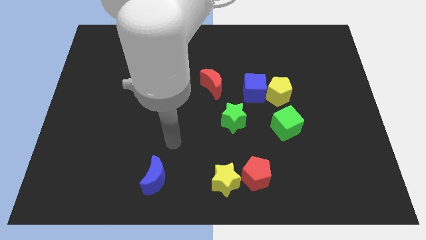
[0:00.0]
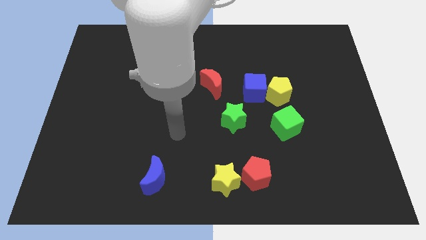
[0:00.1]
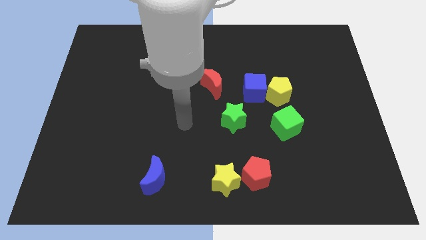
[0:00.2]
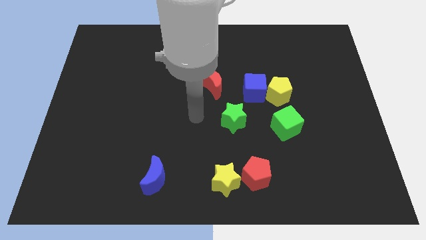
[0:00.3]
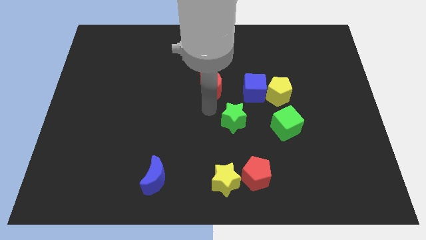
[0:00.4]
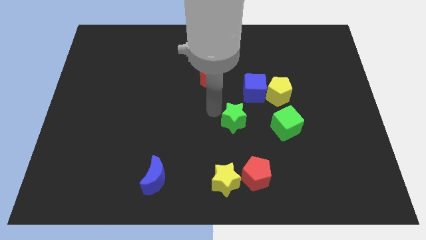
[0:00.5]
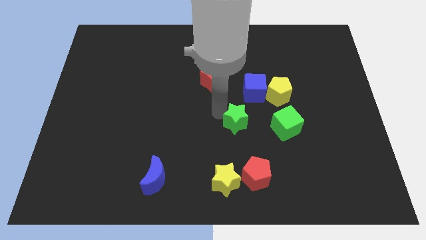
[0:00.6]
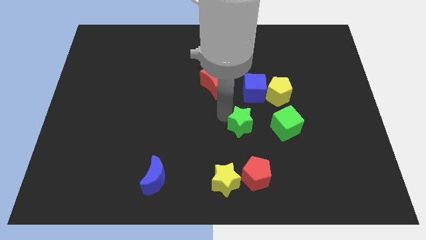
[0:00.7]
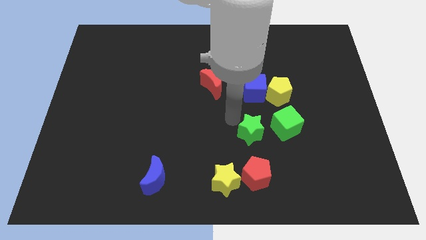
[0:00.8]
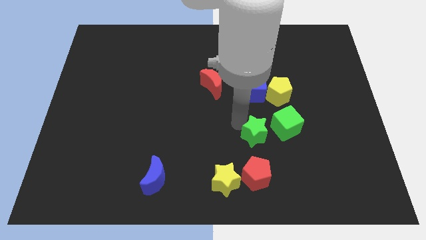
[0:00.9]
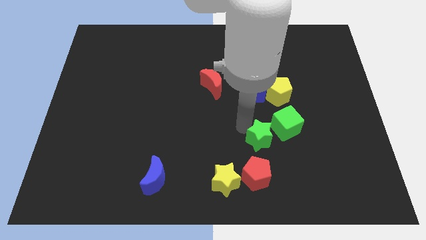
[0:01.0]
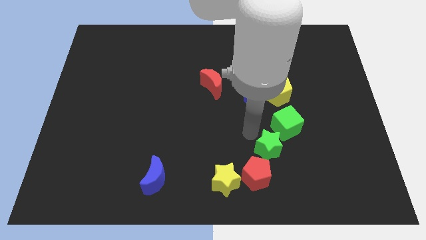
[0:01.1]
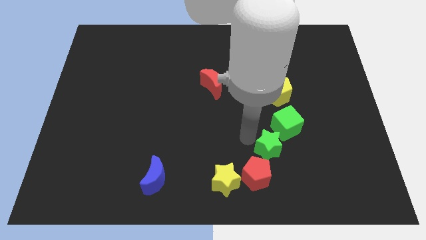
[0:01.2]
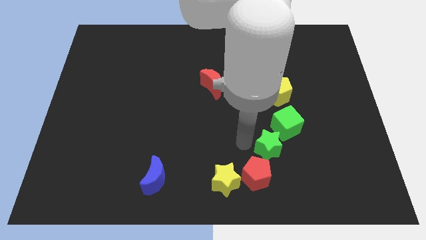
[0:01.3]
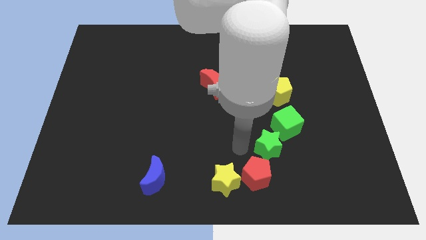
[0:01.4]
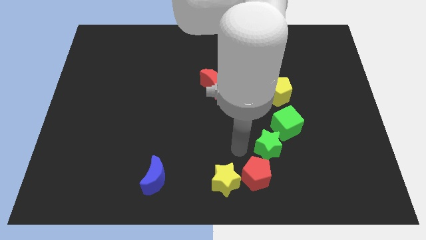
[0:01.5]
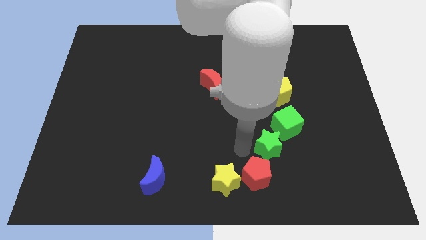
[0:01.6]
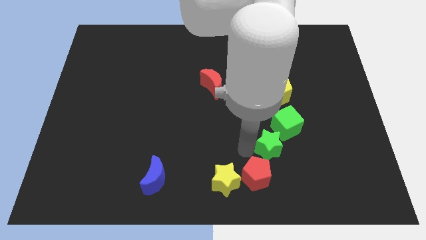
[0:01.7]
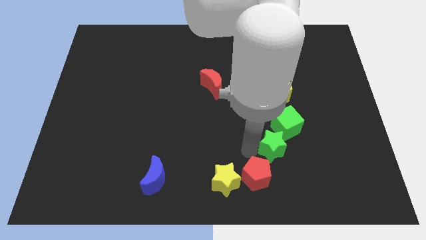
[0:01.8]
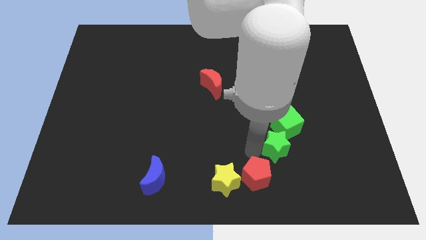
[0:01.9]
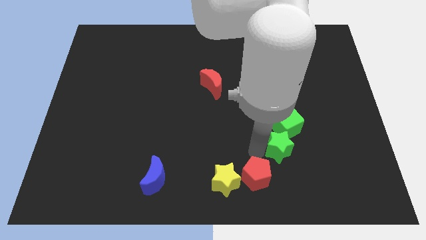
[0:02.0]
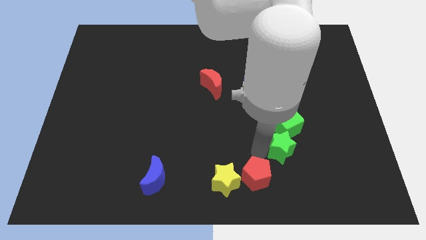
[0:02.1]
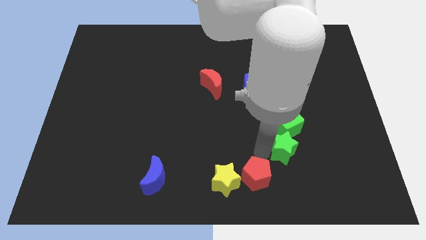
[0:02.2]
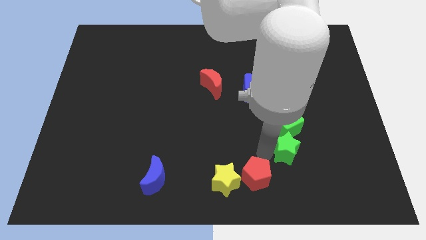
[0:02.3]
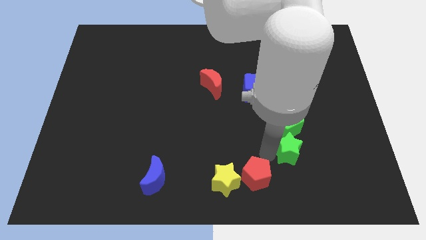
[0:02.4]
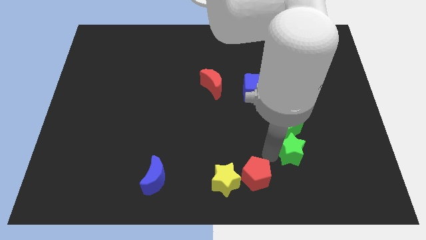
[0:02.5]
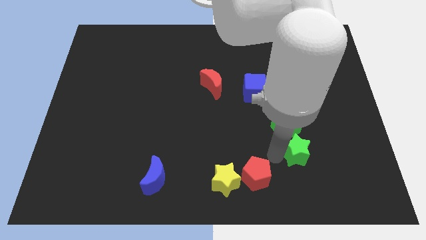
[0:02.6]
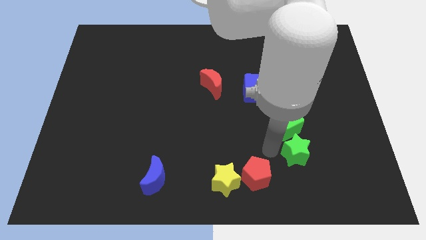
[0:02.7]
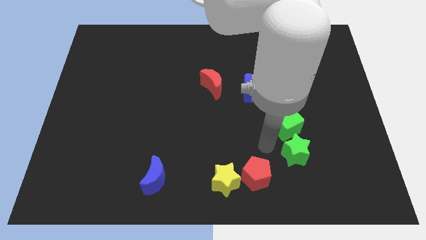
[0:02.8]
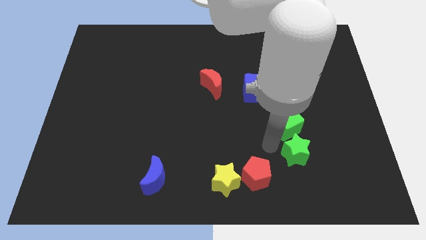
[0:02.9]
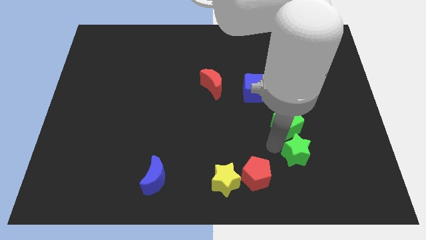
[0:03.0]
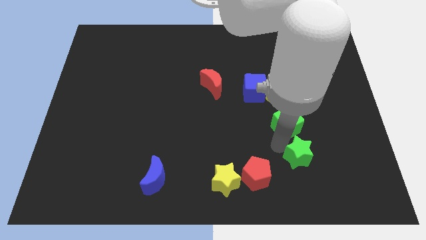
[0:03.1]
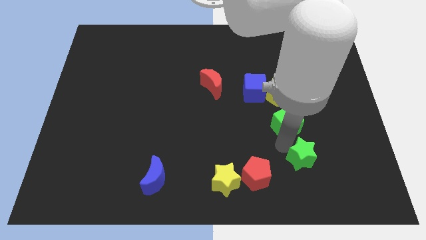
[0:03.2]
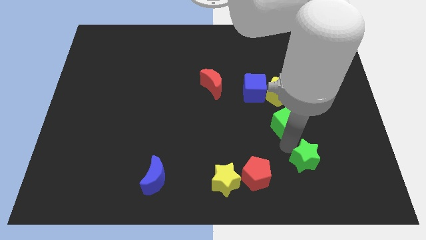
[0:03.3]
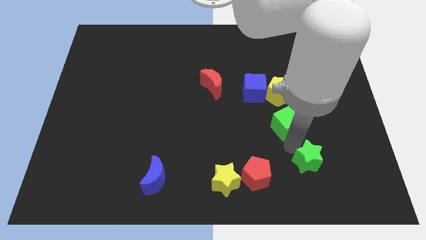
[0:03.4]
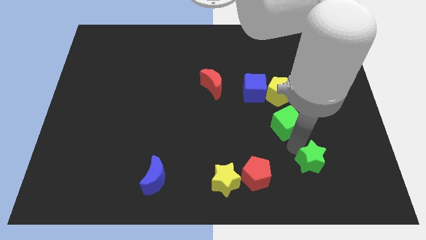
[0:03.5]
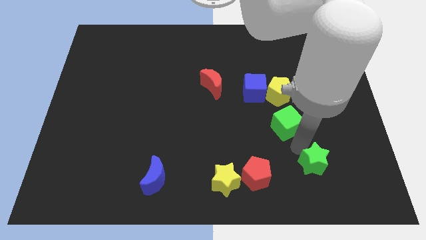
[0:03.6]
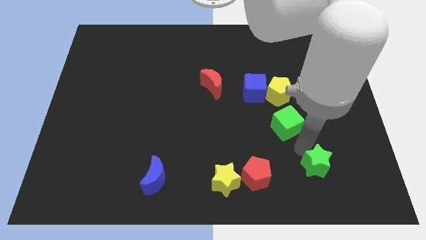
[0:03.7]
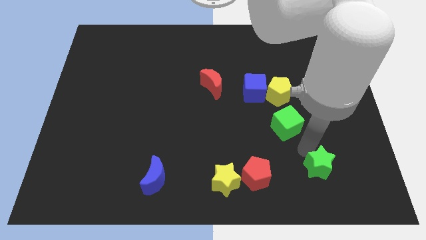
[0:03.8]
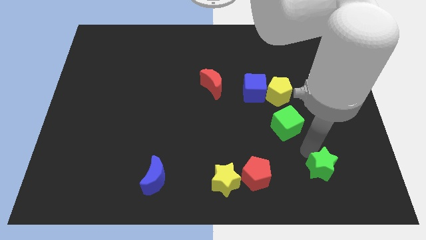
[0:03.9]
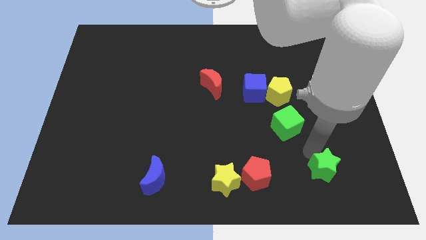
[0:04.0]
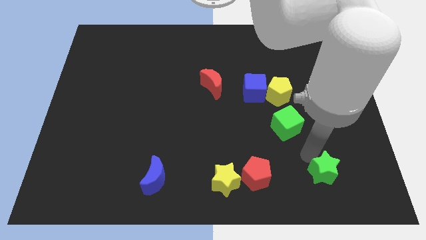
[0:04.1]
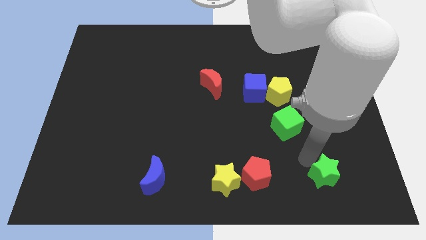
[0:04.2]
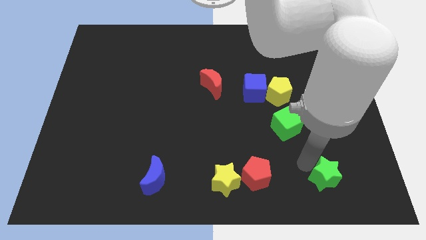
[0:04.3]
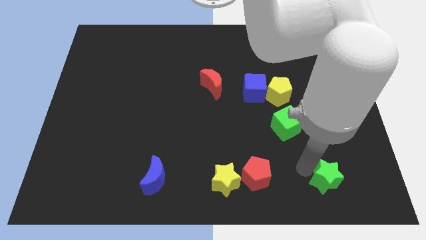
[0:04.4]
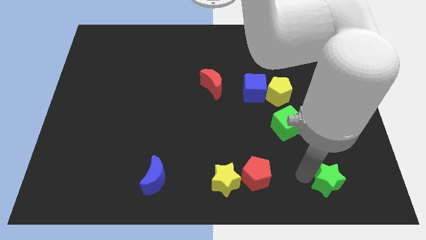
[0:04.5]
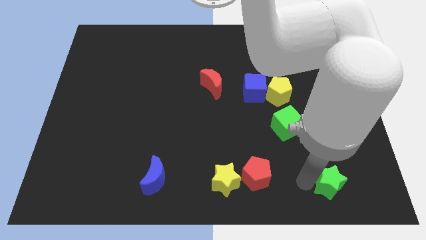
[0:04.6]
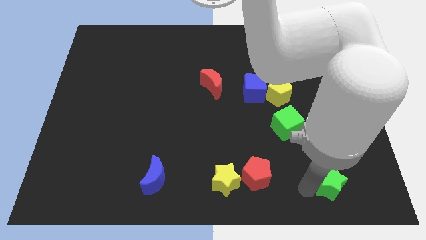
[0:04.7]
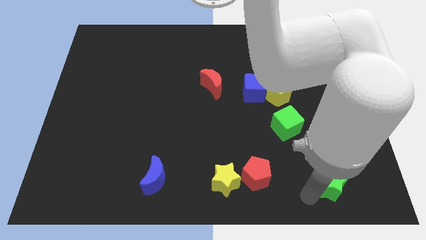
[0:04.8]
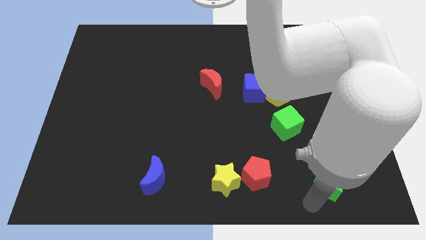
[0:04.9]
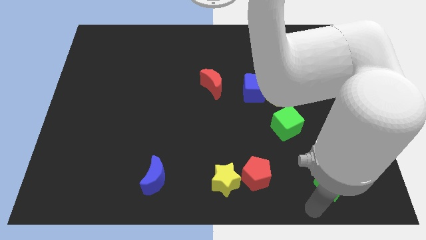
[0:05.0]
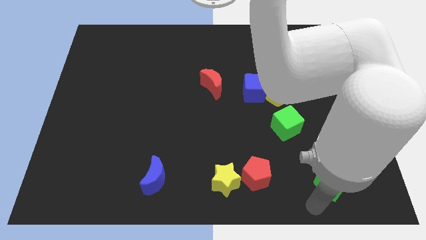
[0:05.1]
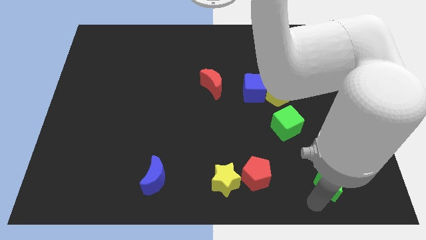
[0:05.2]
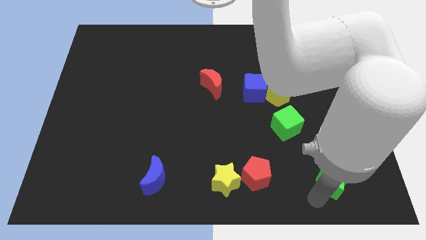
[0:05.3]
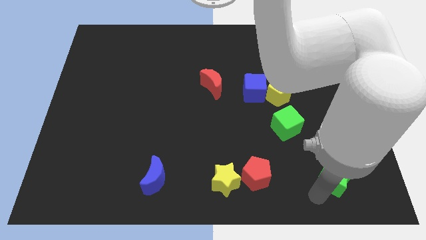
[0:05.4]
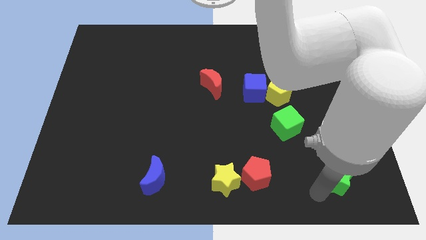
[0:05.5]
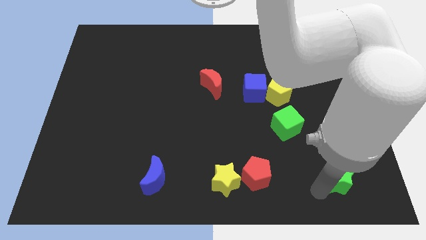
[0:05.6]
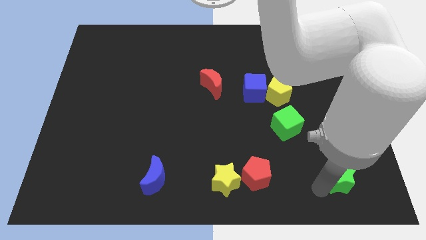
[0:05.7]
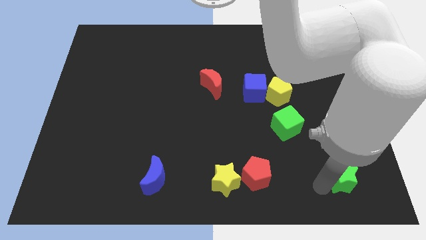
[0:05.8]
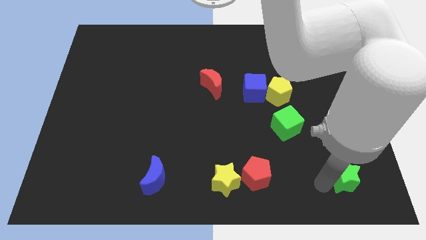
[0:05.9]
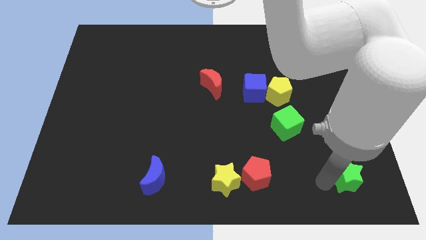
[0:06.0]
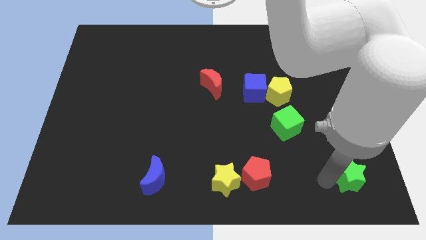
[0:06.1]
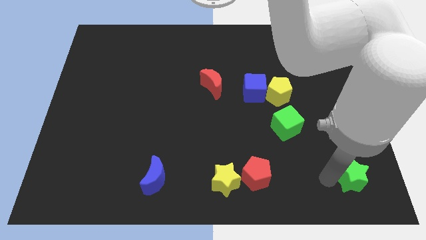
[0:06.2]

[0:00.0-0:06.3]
move the green star to the bottom right

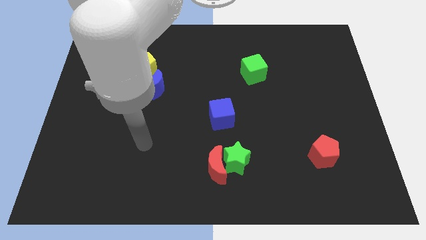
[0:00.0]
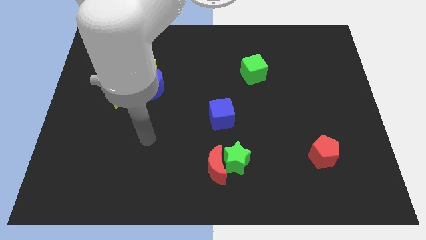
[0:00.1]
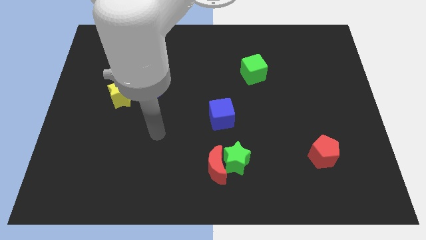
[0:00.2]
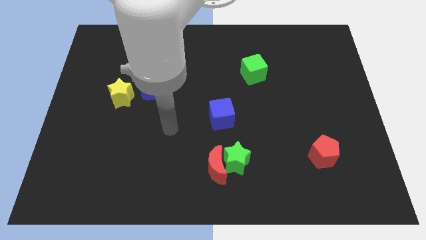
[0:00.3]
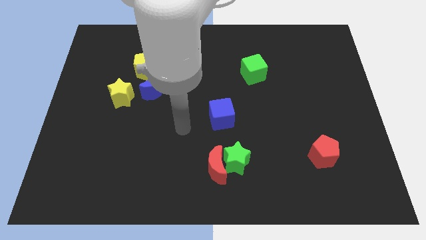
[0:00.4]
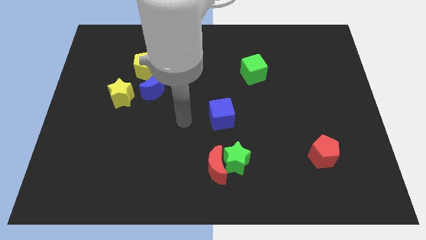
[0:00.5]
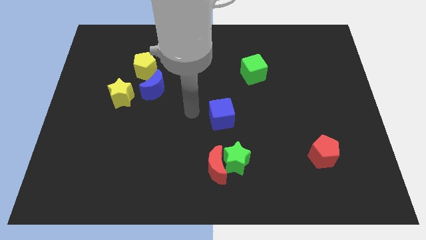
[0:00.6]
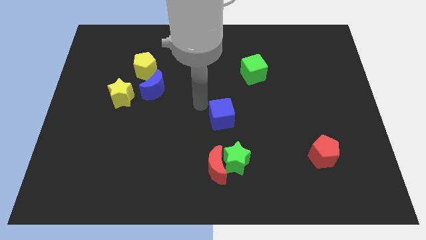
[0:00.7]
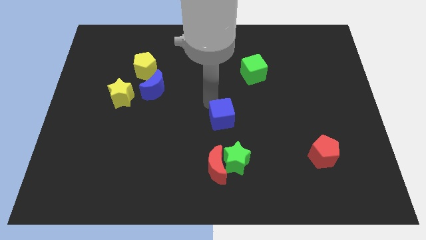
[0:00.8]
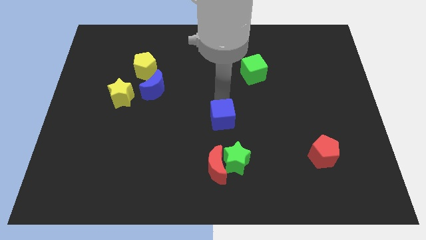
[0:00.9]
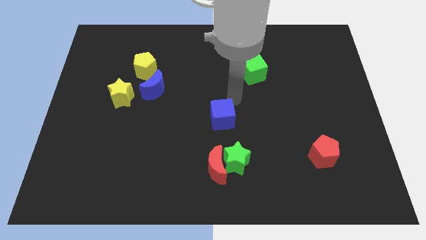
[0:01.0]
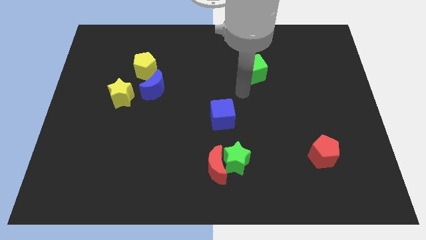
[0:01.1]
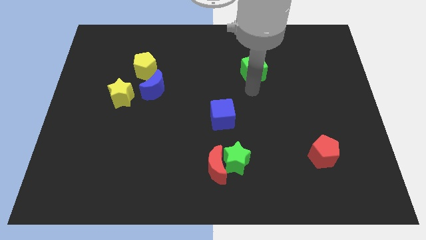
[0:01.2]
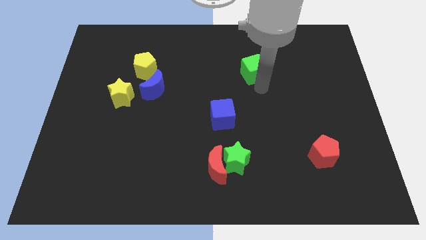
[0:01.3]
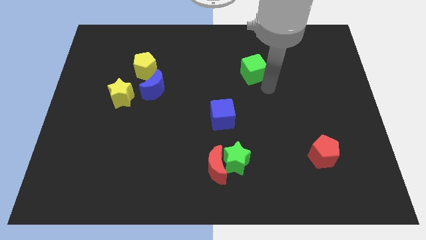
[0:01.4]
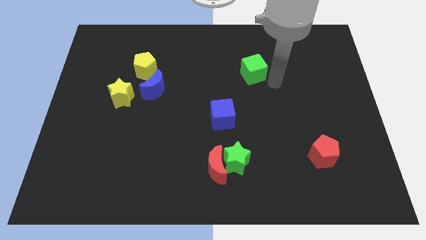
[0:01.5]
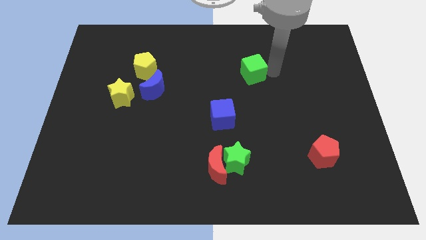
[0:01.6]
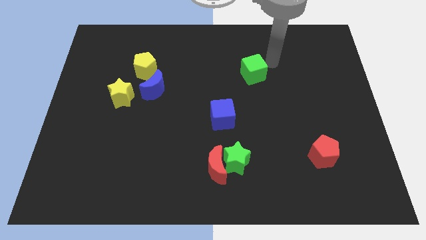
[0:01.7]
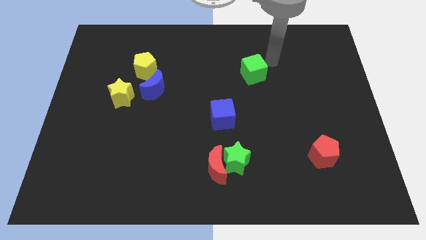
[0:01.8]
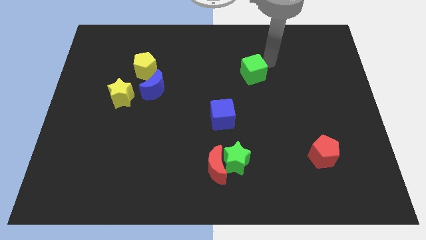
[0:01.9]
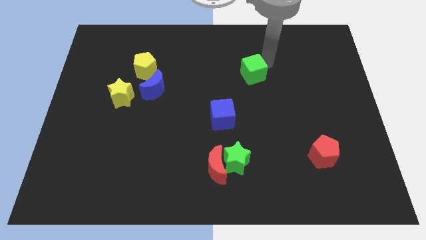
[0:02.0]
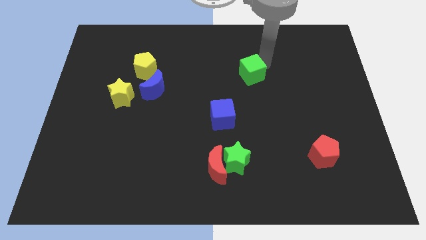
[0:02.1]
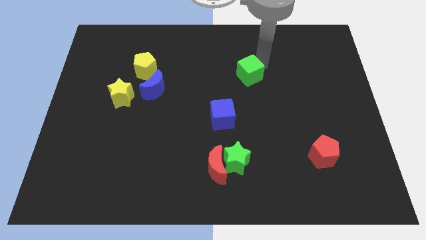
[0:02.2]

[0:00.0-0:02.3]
push the green cube to the middle

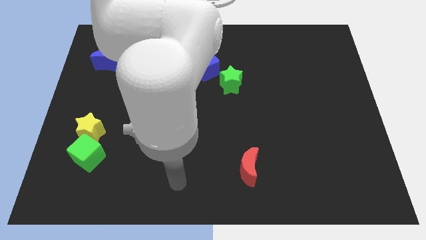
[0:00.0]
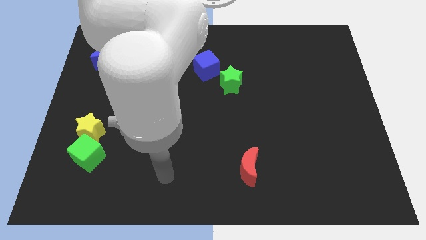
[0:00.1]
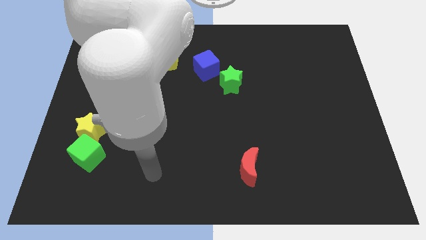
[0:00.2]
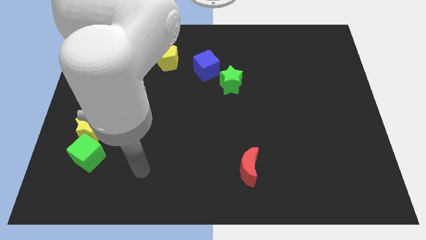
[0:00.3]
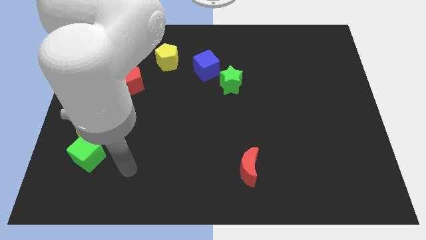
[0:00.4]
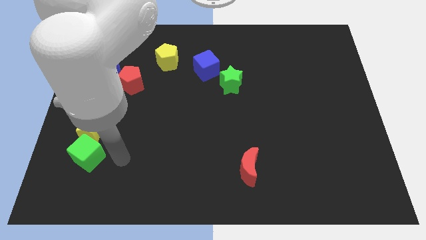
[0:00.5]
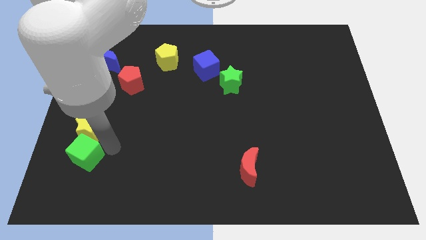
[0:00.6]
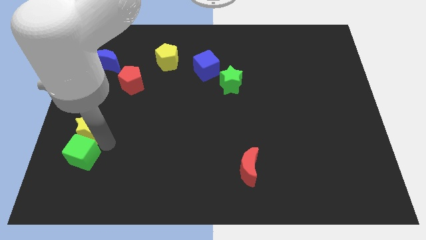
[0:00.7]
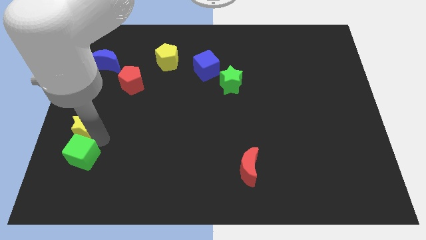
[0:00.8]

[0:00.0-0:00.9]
put the yellow star to the left side of the board
